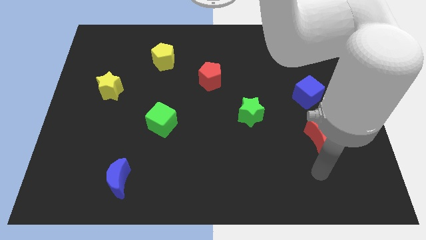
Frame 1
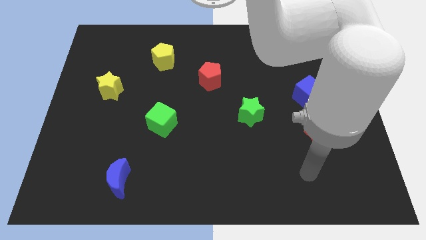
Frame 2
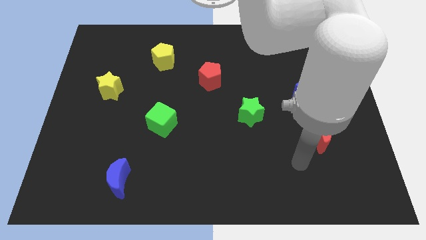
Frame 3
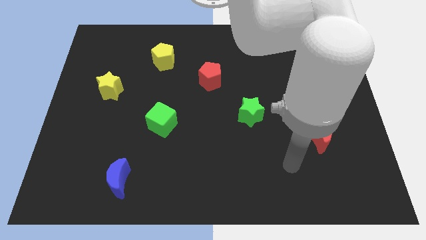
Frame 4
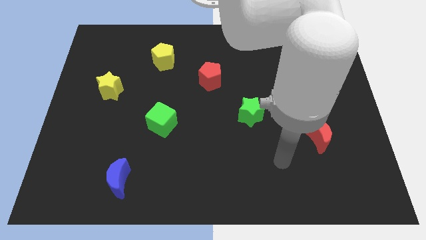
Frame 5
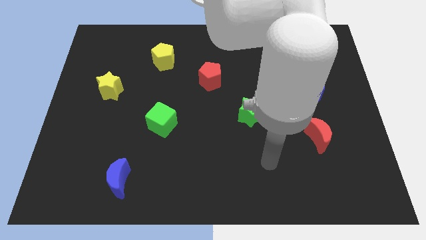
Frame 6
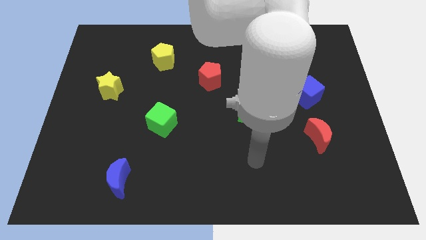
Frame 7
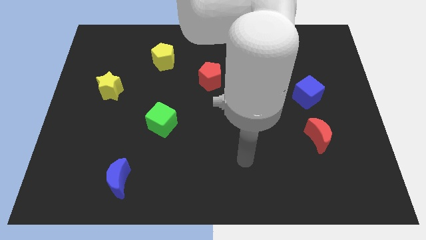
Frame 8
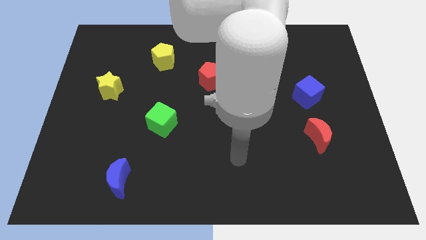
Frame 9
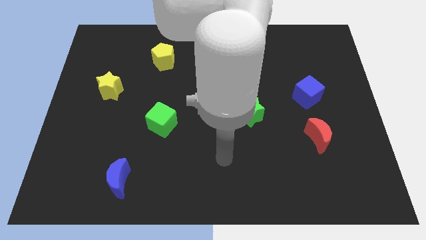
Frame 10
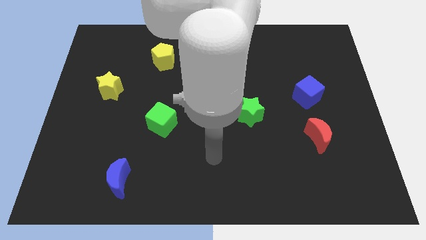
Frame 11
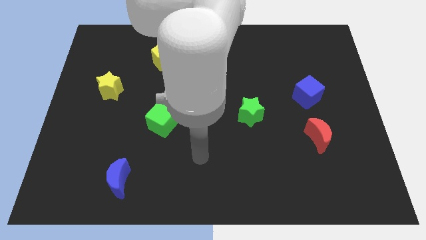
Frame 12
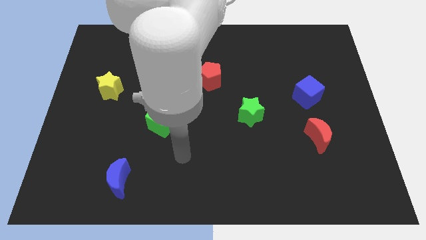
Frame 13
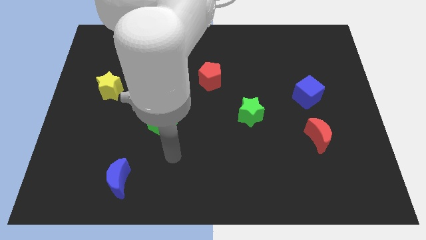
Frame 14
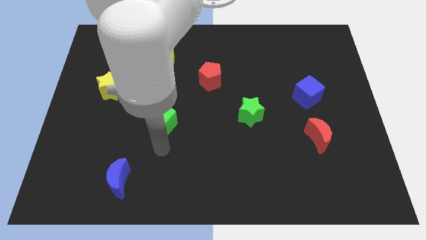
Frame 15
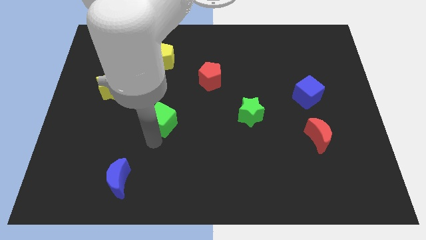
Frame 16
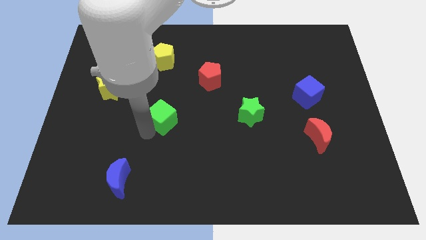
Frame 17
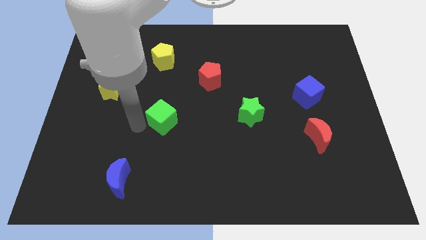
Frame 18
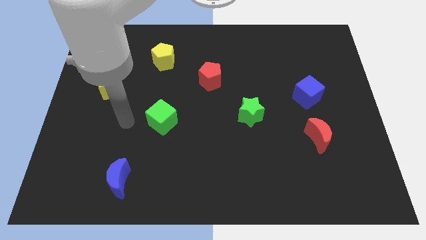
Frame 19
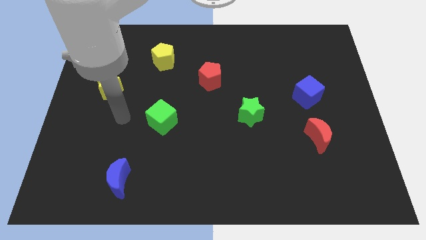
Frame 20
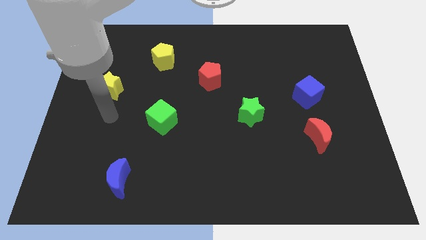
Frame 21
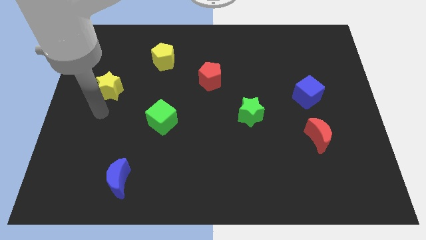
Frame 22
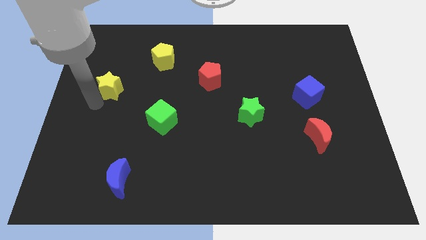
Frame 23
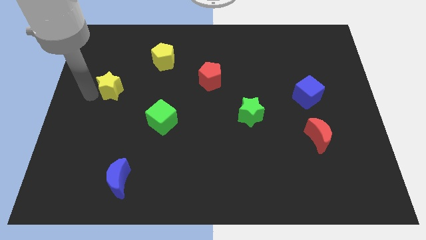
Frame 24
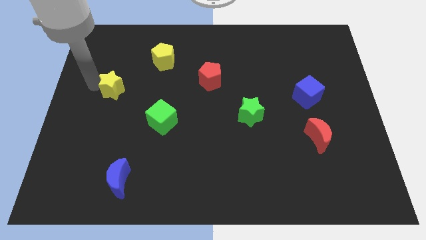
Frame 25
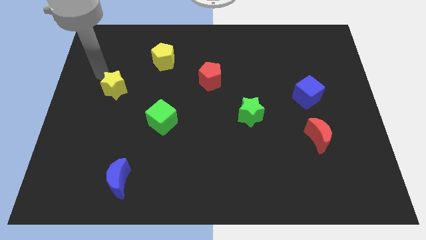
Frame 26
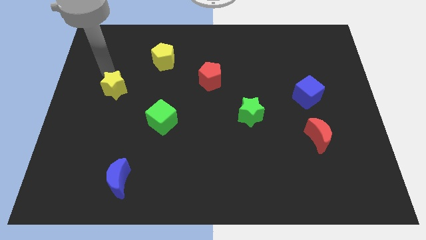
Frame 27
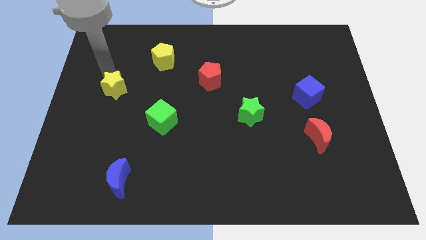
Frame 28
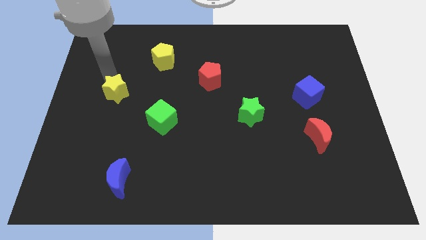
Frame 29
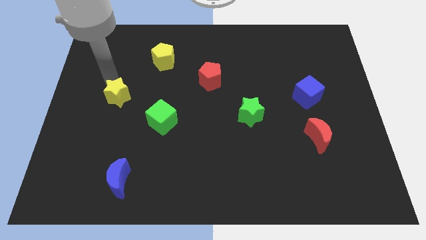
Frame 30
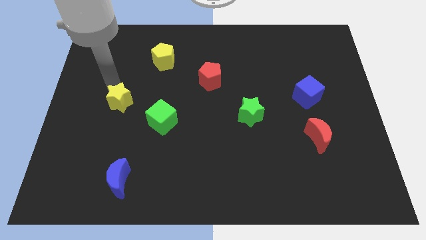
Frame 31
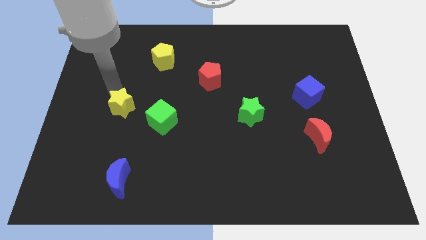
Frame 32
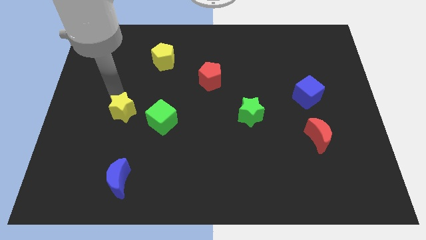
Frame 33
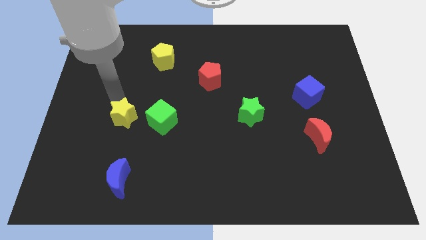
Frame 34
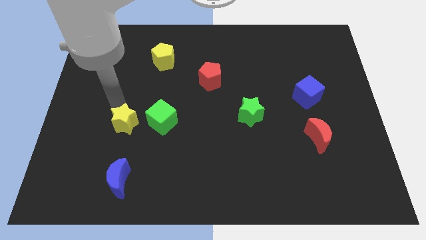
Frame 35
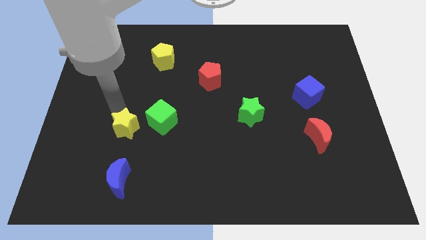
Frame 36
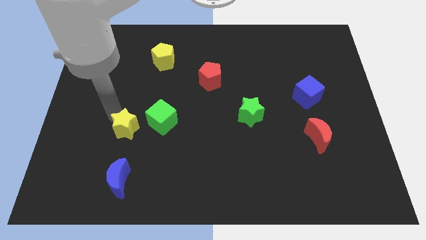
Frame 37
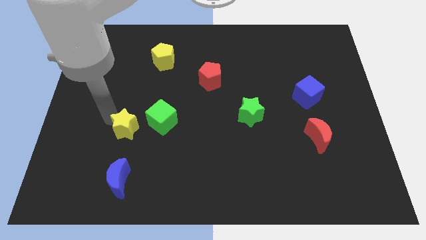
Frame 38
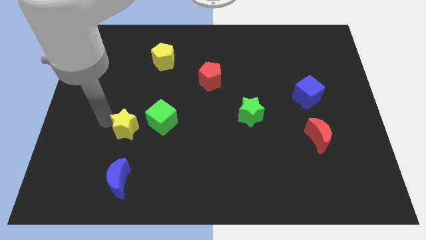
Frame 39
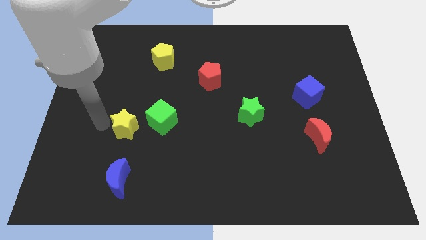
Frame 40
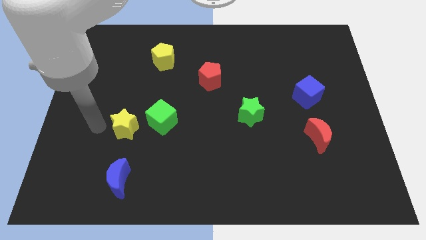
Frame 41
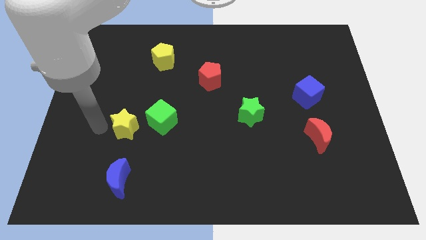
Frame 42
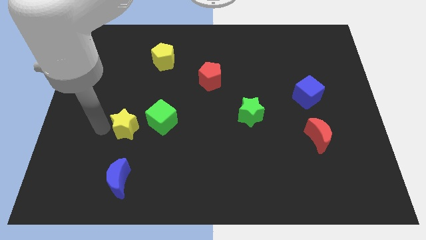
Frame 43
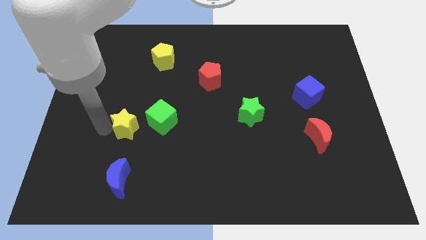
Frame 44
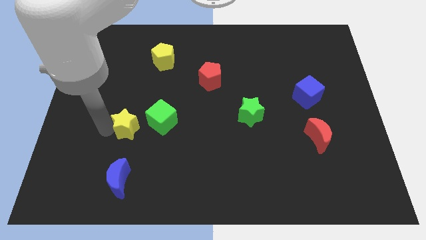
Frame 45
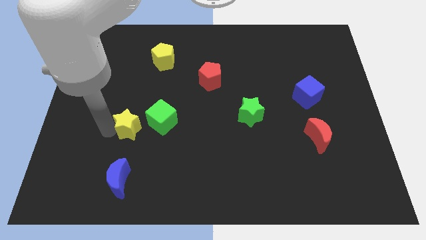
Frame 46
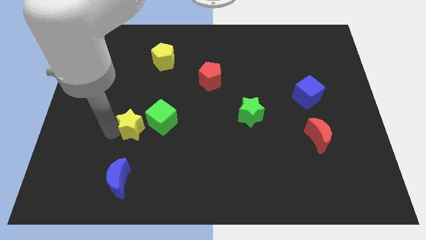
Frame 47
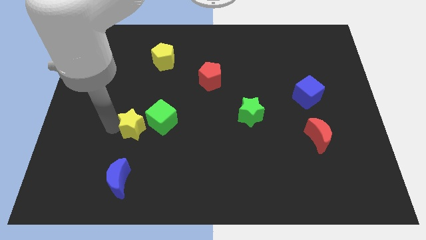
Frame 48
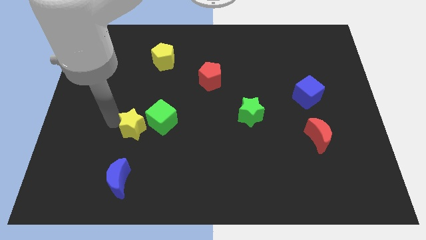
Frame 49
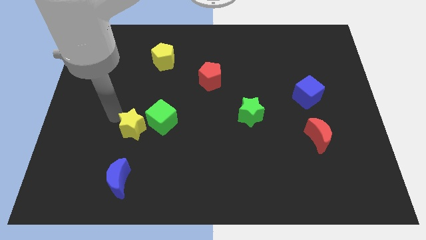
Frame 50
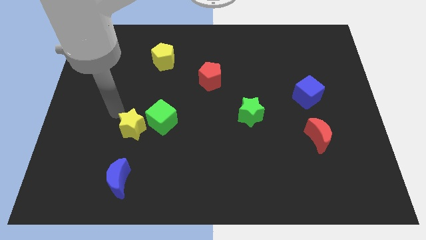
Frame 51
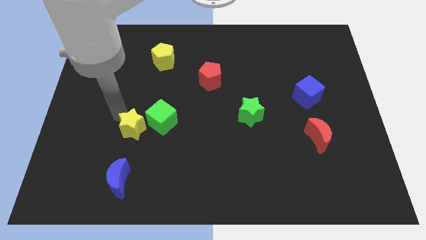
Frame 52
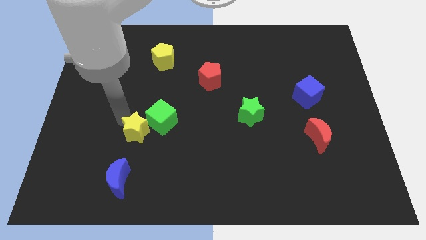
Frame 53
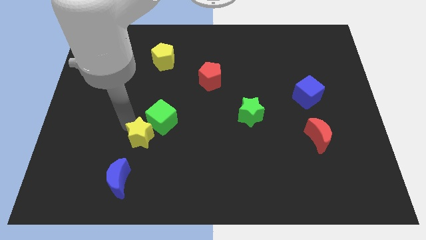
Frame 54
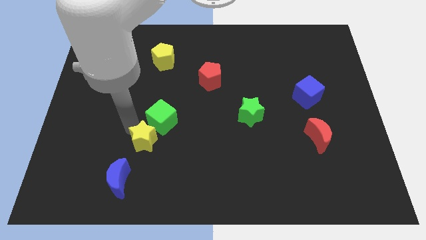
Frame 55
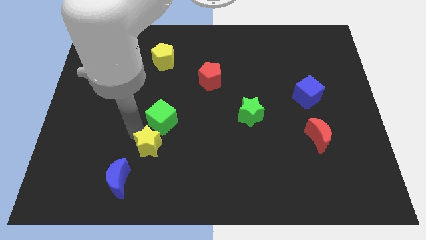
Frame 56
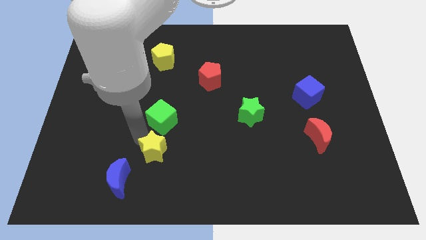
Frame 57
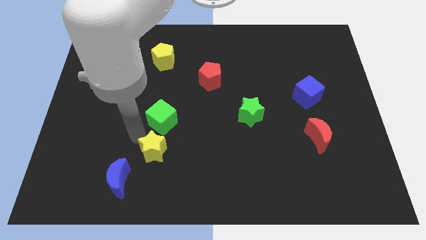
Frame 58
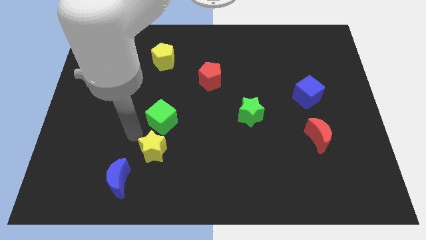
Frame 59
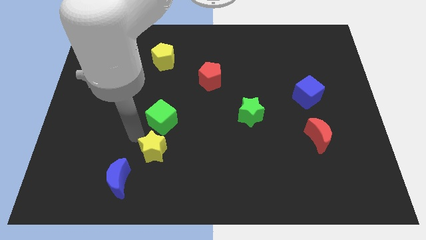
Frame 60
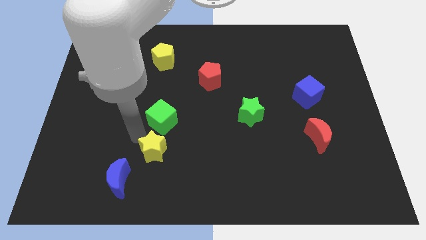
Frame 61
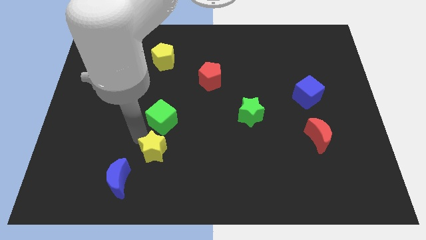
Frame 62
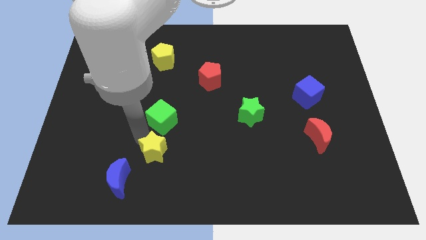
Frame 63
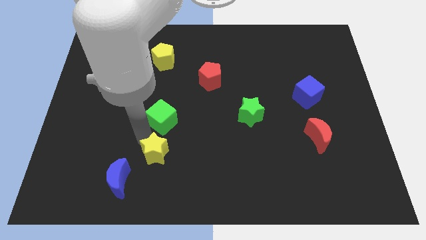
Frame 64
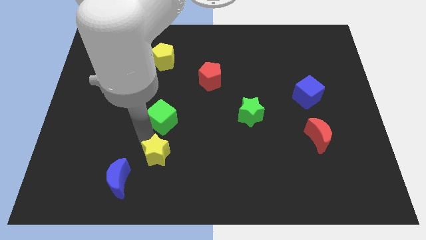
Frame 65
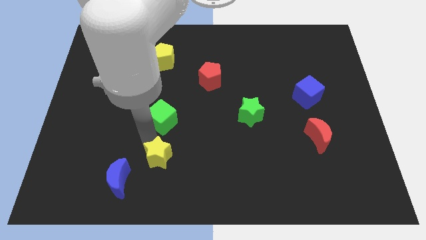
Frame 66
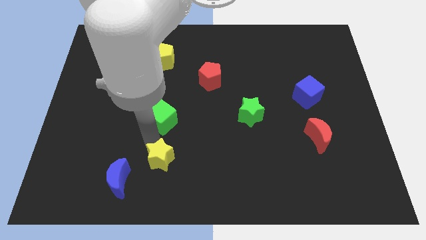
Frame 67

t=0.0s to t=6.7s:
put the yellow star right of the blue moon

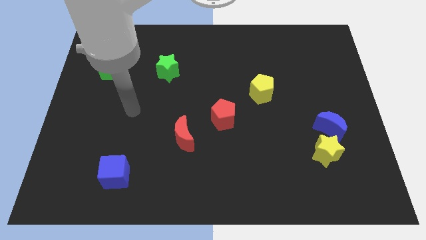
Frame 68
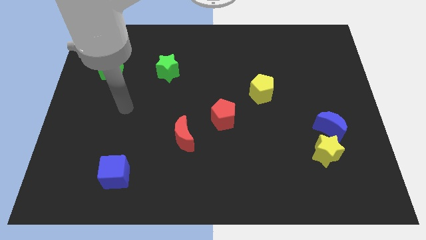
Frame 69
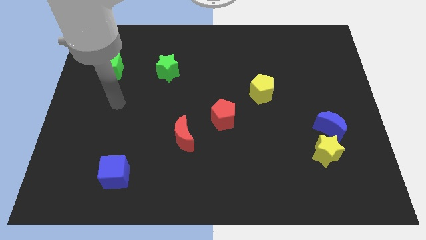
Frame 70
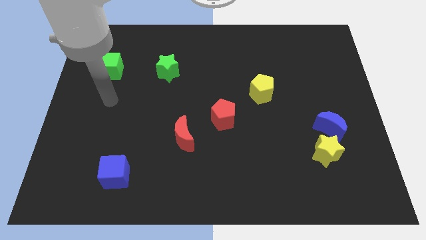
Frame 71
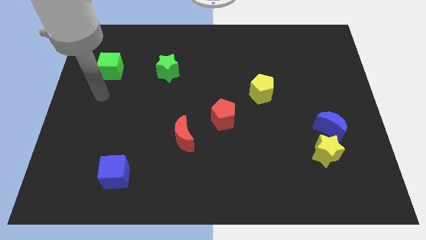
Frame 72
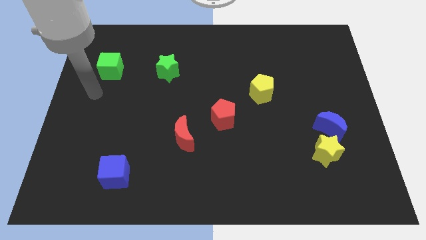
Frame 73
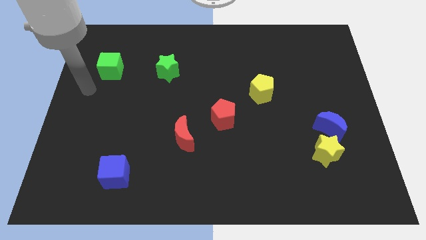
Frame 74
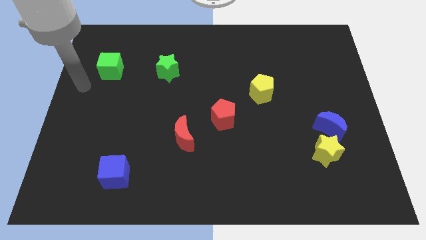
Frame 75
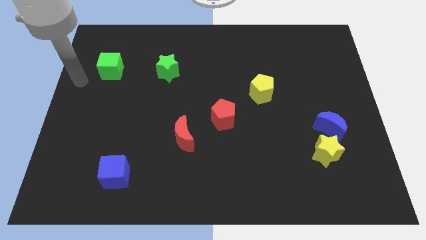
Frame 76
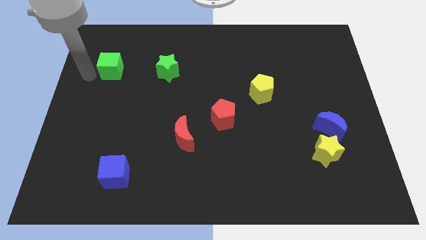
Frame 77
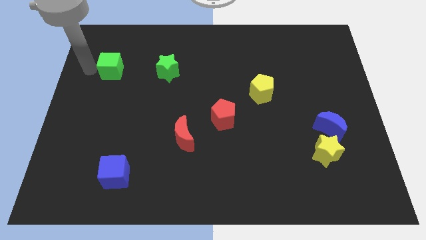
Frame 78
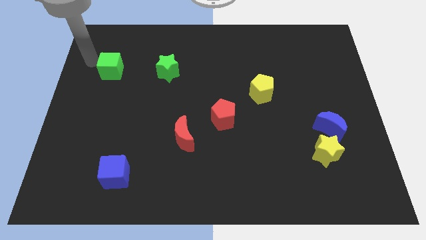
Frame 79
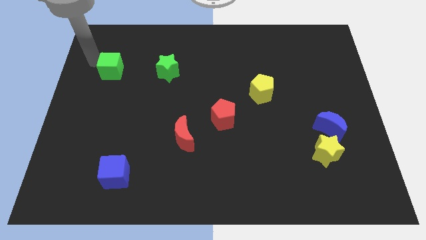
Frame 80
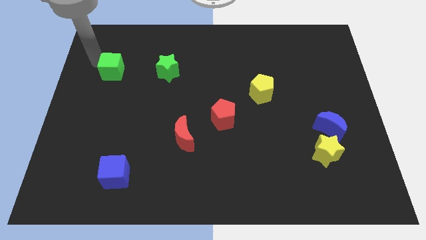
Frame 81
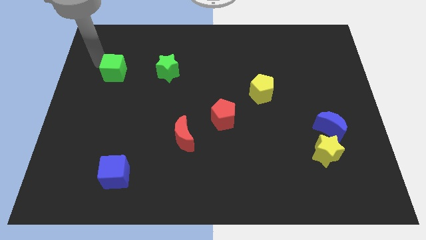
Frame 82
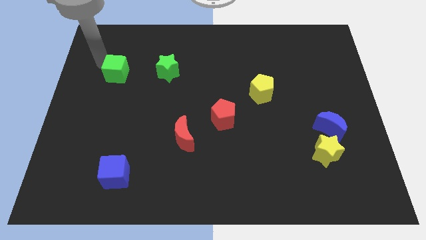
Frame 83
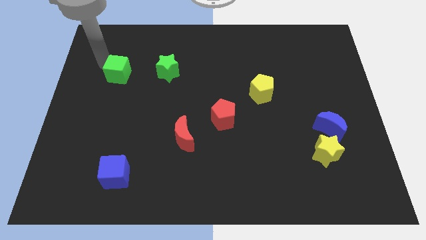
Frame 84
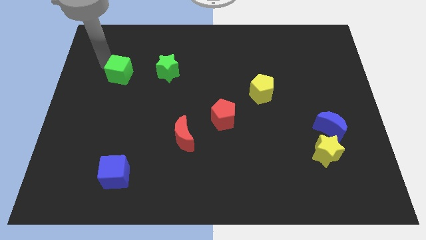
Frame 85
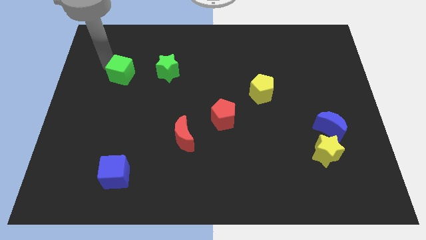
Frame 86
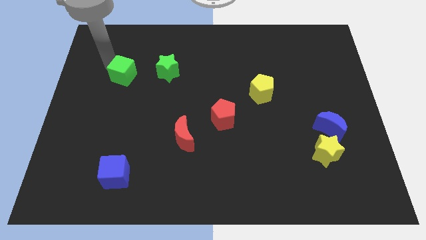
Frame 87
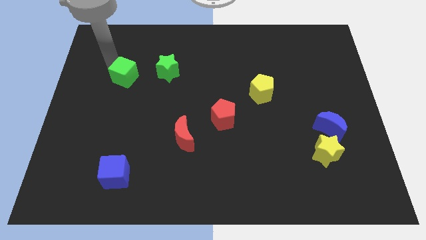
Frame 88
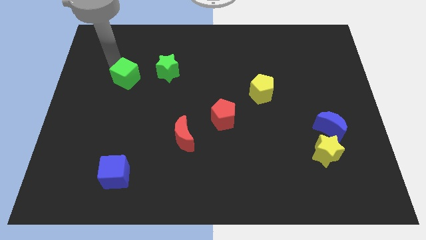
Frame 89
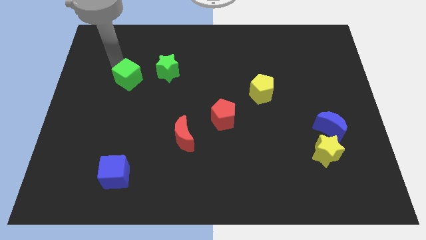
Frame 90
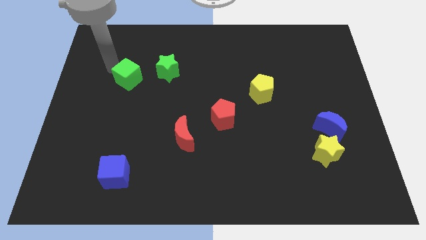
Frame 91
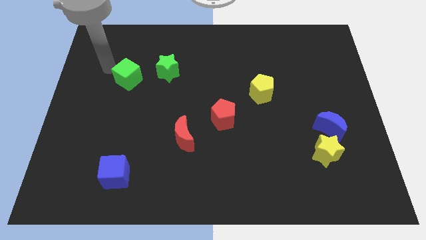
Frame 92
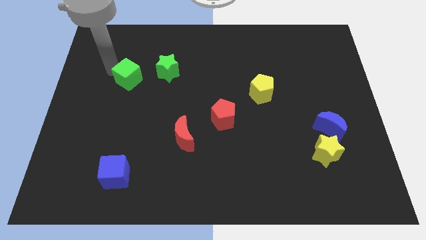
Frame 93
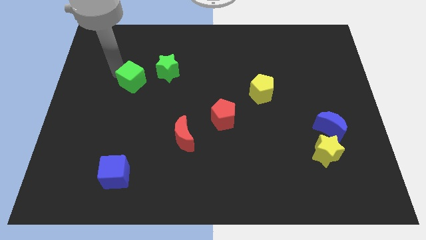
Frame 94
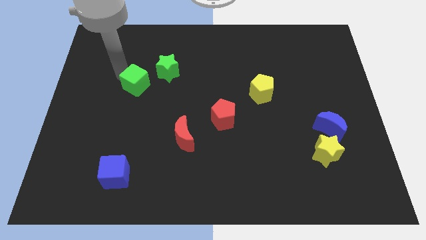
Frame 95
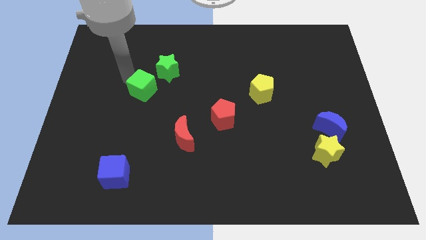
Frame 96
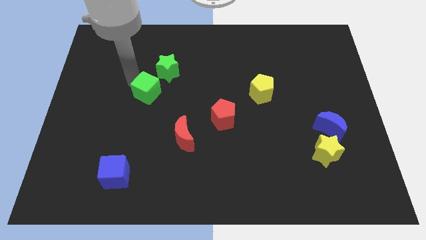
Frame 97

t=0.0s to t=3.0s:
put the green cube below the green star
